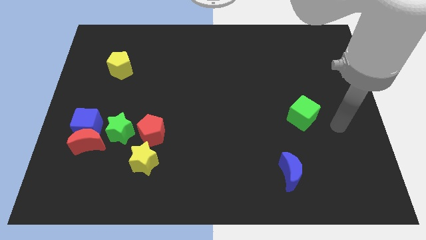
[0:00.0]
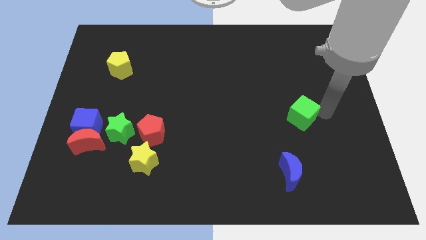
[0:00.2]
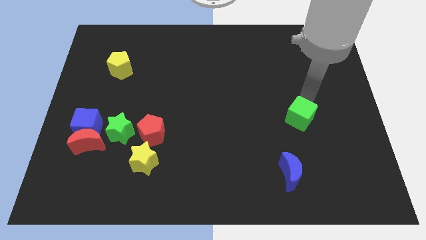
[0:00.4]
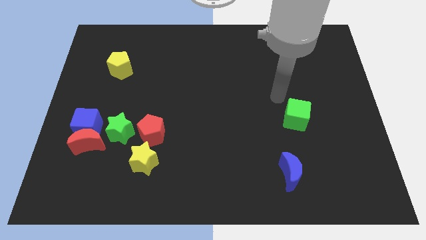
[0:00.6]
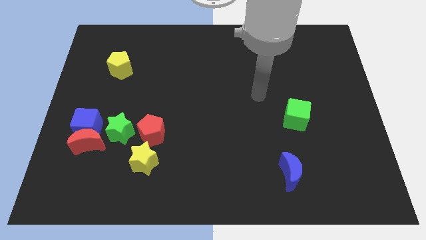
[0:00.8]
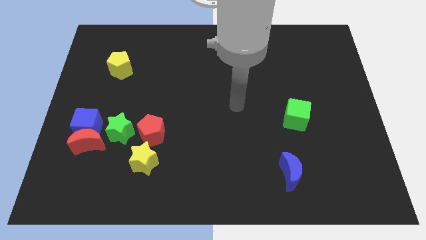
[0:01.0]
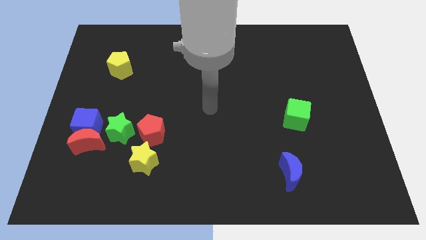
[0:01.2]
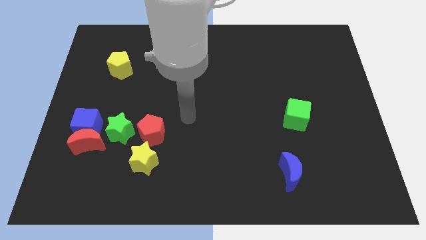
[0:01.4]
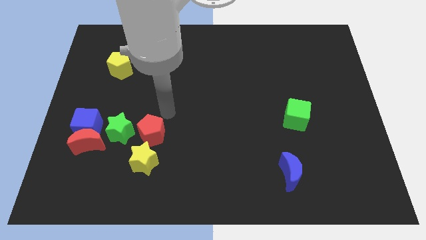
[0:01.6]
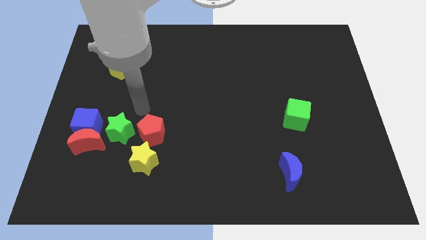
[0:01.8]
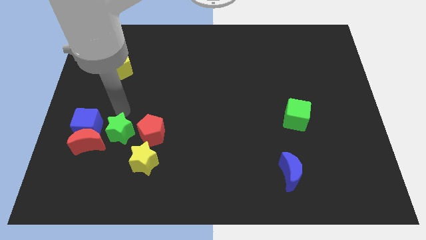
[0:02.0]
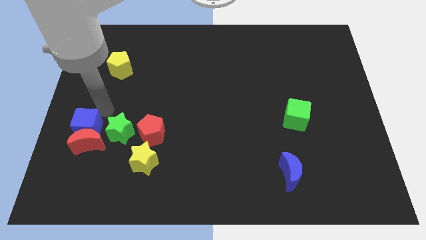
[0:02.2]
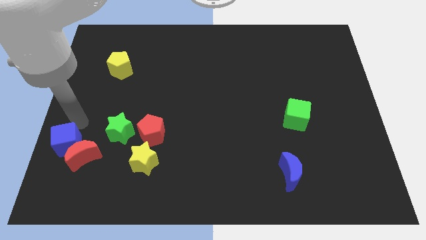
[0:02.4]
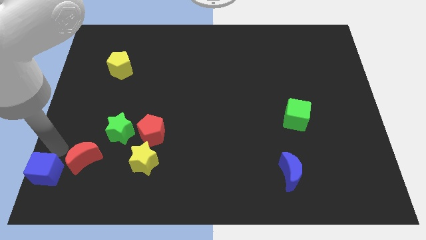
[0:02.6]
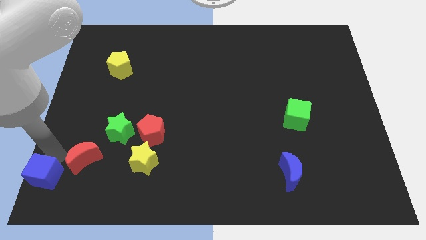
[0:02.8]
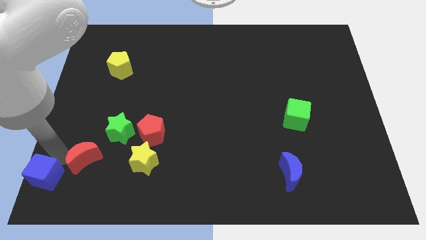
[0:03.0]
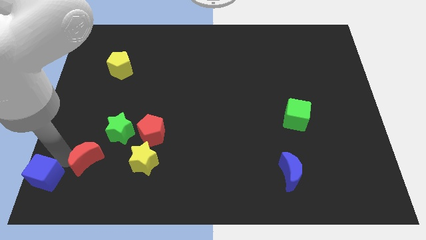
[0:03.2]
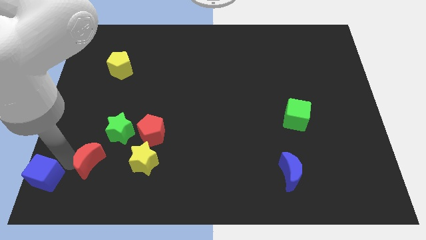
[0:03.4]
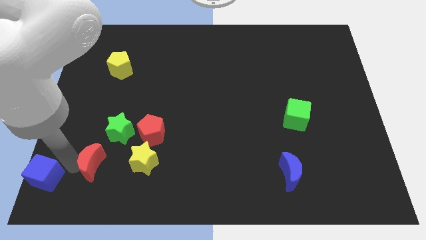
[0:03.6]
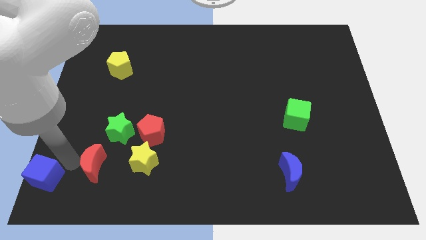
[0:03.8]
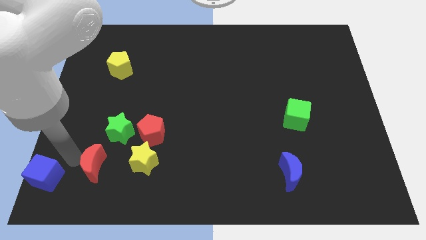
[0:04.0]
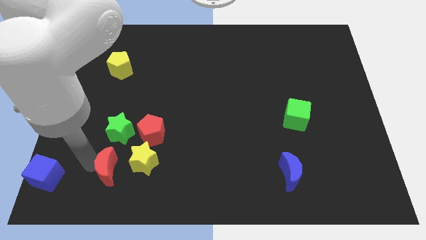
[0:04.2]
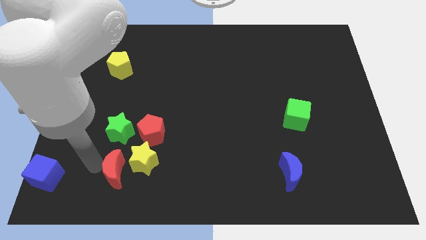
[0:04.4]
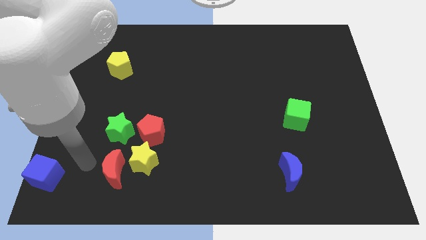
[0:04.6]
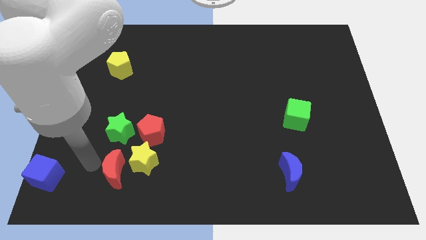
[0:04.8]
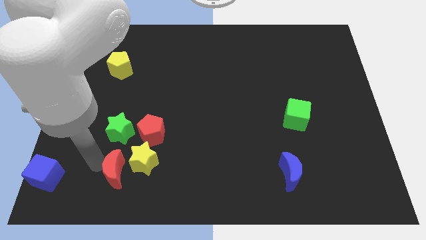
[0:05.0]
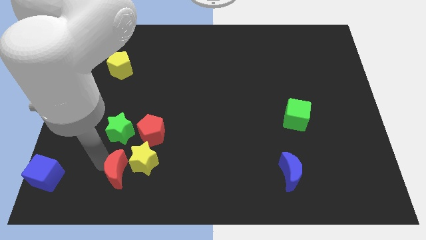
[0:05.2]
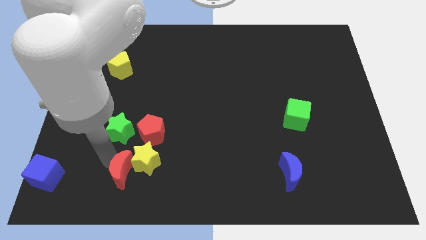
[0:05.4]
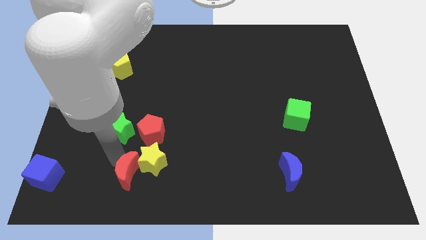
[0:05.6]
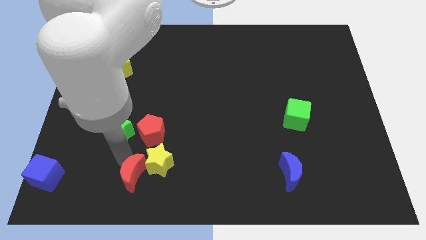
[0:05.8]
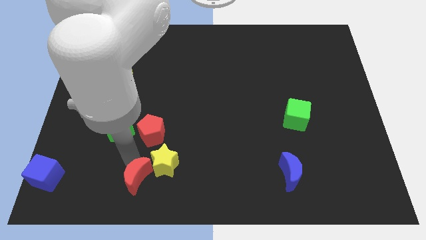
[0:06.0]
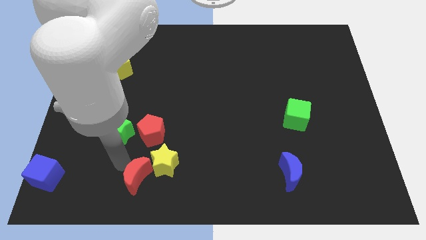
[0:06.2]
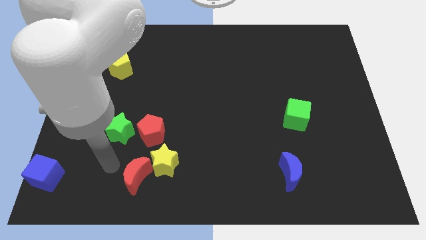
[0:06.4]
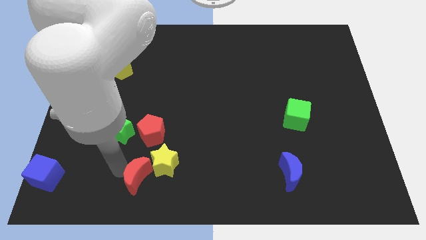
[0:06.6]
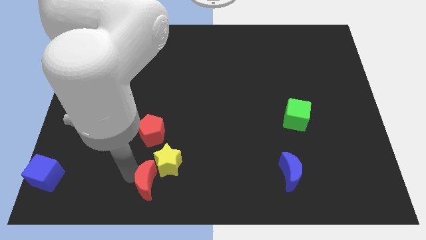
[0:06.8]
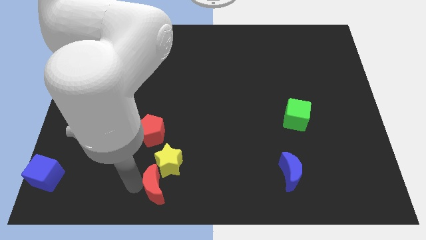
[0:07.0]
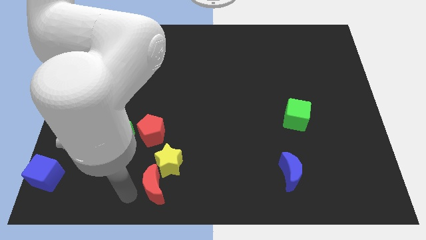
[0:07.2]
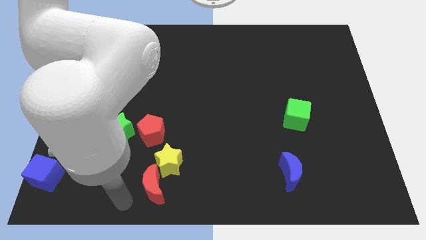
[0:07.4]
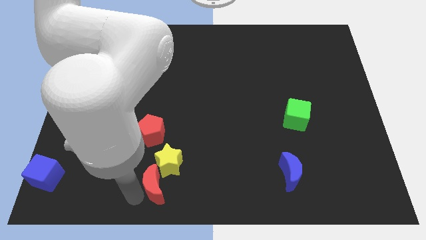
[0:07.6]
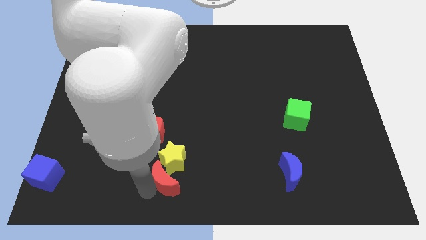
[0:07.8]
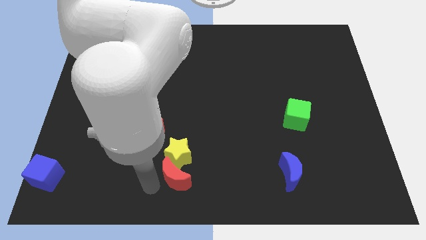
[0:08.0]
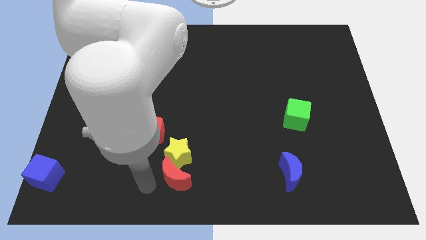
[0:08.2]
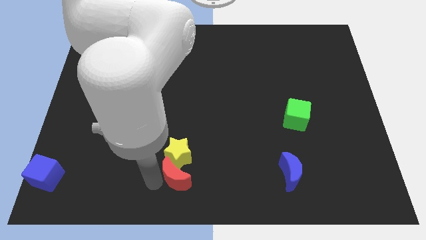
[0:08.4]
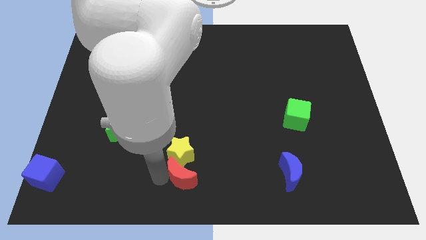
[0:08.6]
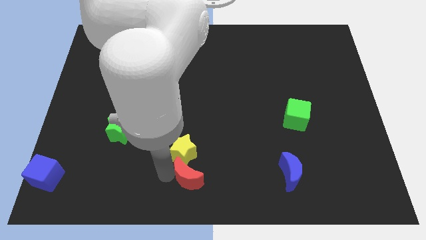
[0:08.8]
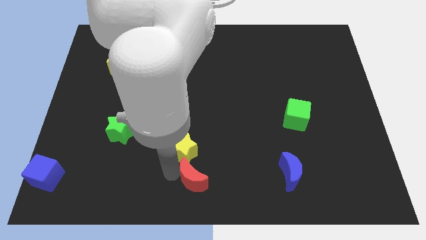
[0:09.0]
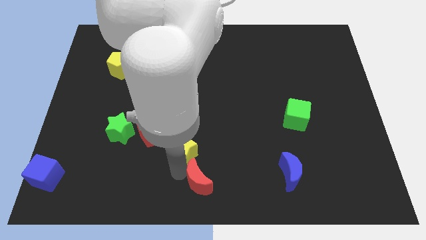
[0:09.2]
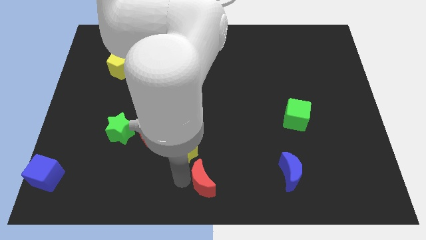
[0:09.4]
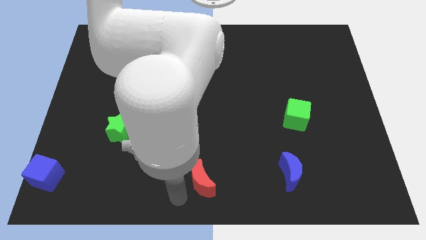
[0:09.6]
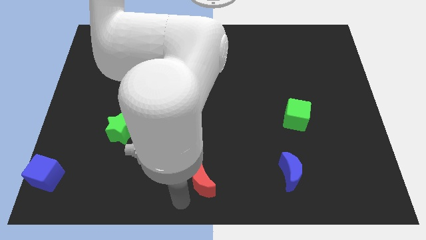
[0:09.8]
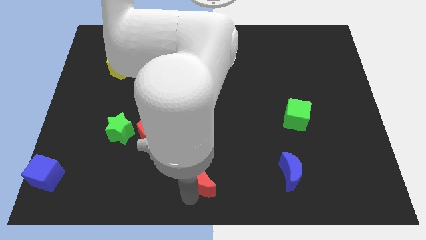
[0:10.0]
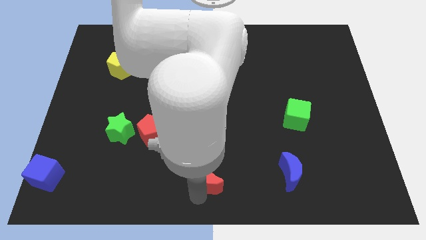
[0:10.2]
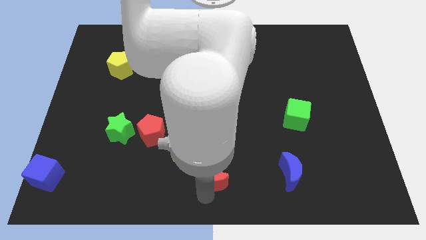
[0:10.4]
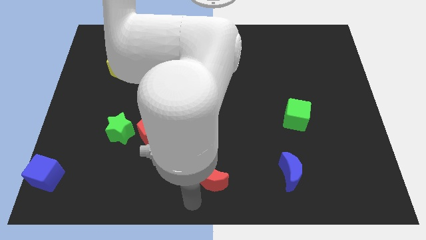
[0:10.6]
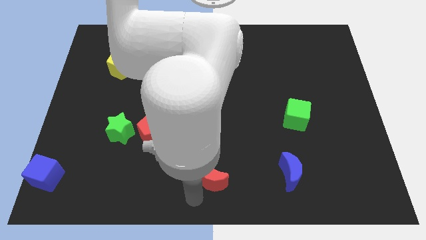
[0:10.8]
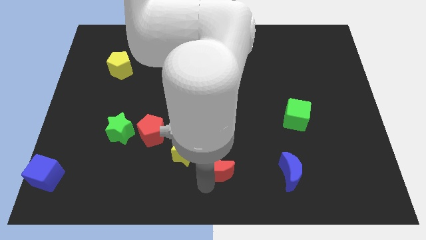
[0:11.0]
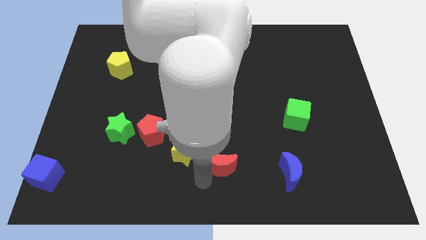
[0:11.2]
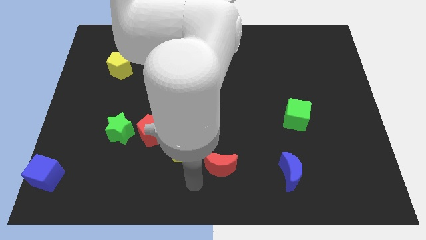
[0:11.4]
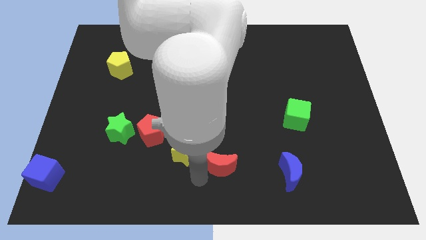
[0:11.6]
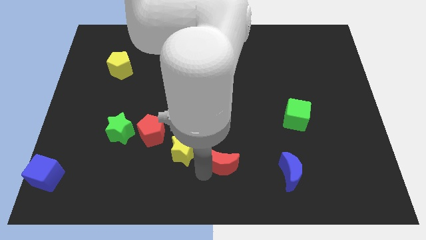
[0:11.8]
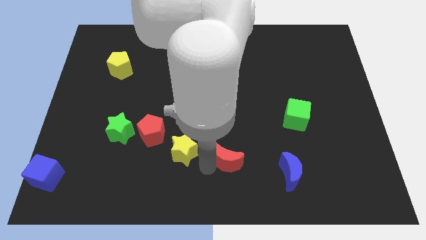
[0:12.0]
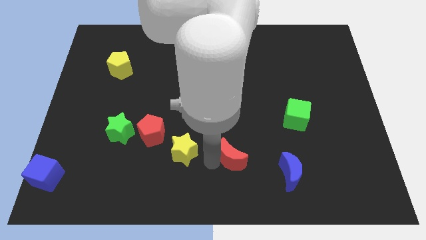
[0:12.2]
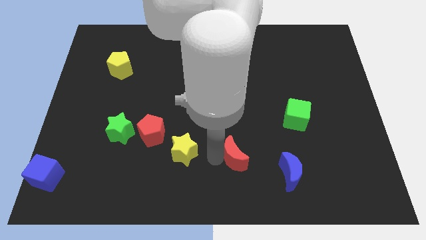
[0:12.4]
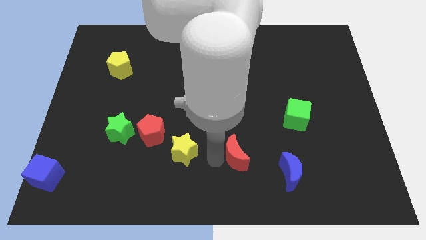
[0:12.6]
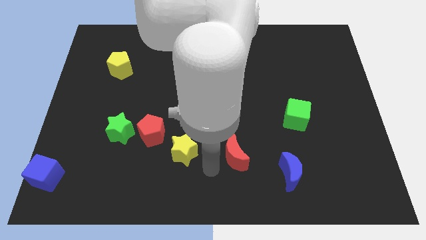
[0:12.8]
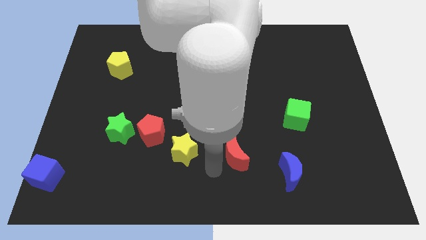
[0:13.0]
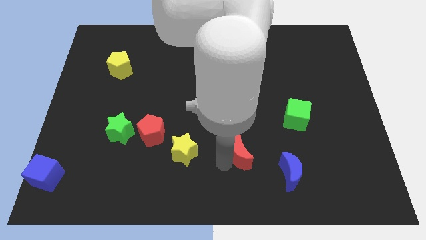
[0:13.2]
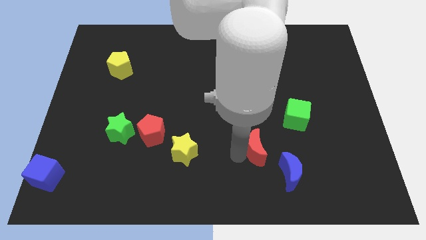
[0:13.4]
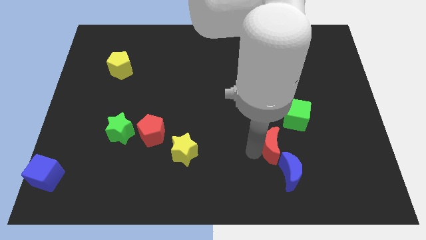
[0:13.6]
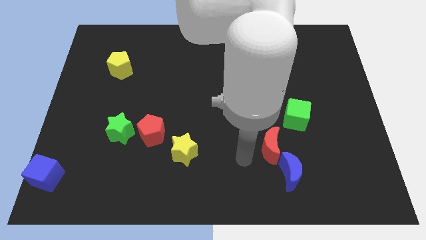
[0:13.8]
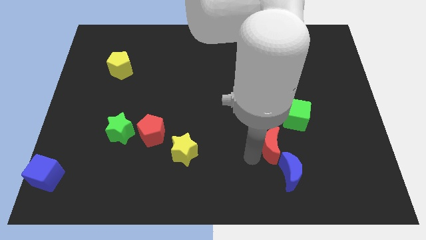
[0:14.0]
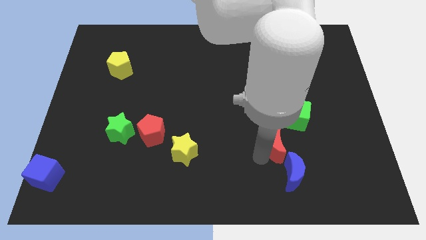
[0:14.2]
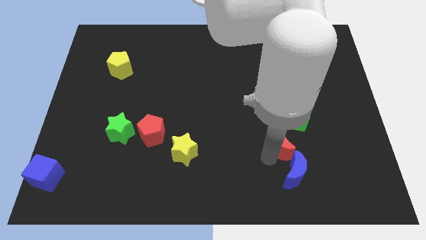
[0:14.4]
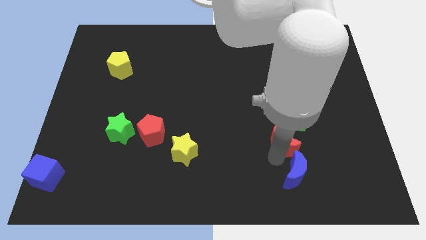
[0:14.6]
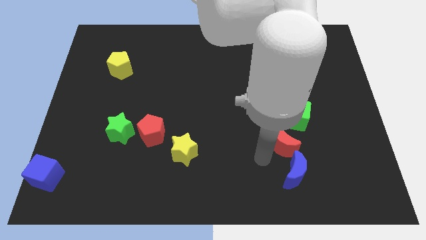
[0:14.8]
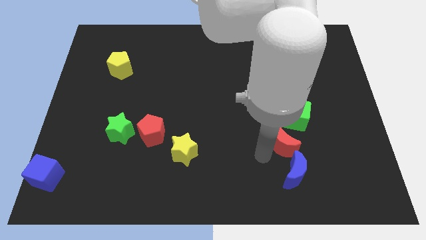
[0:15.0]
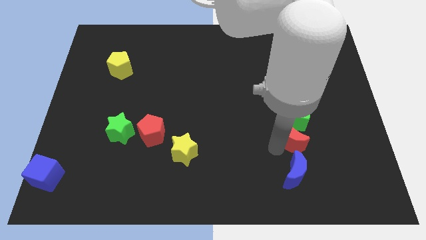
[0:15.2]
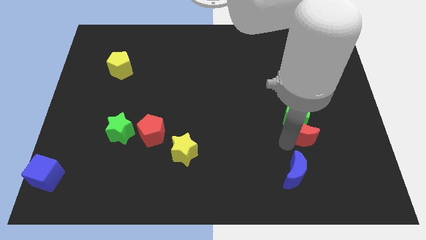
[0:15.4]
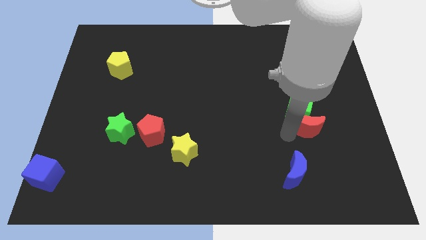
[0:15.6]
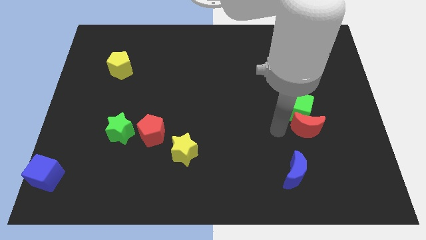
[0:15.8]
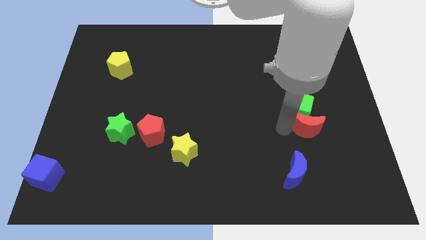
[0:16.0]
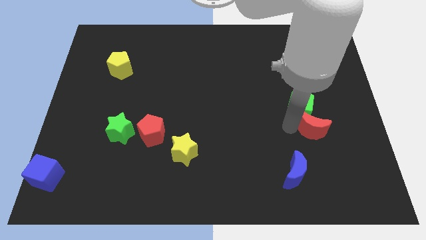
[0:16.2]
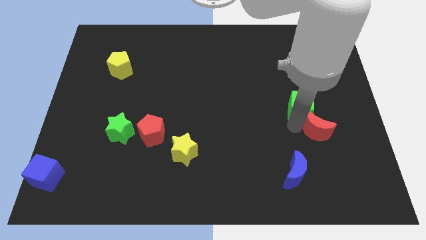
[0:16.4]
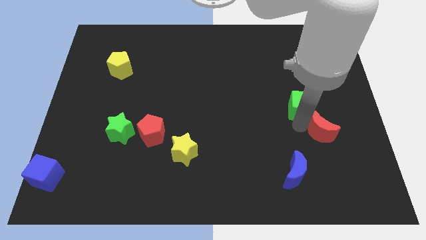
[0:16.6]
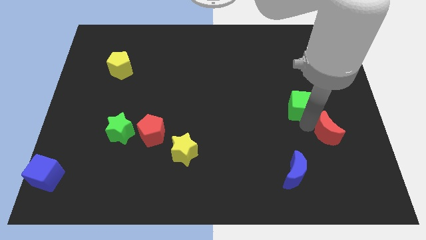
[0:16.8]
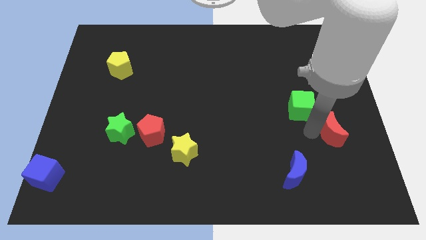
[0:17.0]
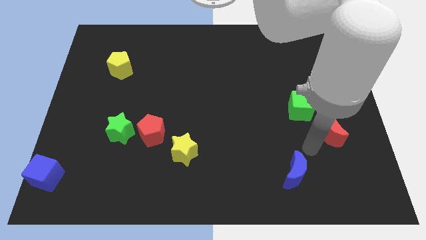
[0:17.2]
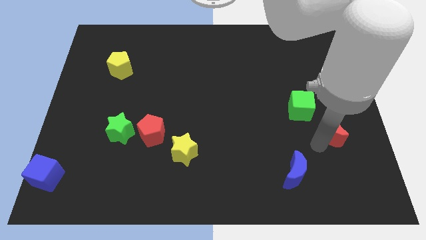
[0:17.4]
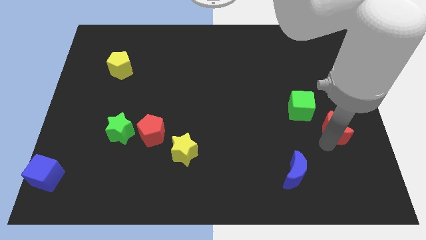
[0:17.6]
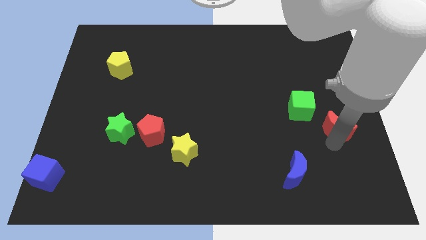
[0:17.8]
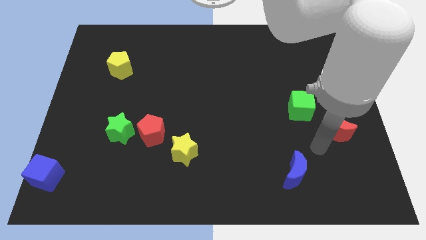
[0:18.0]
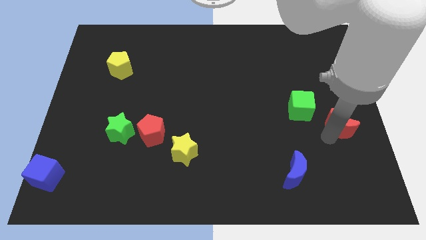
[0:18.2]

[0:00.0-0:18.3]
put the red moon to the right side of the board
